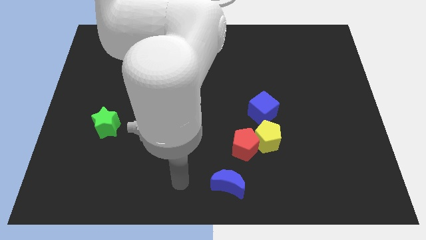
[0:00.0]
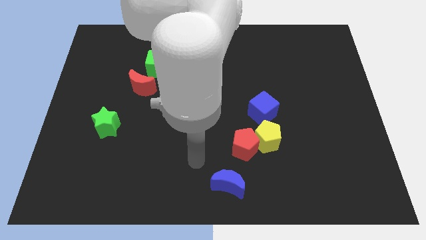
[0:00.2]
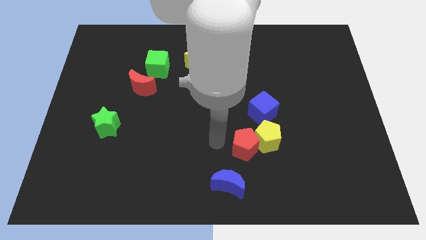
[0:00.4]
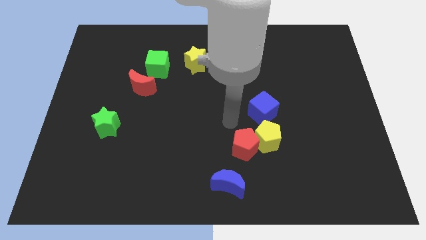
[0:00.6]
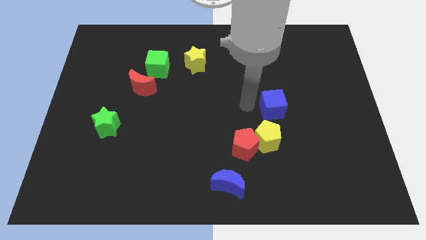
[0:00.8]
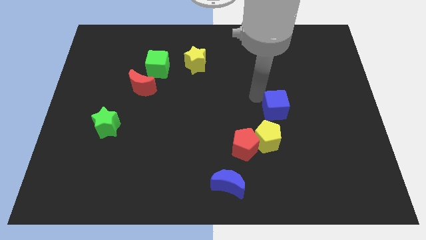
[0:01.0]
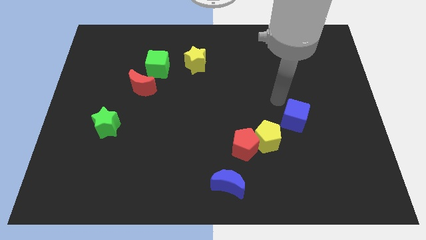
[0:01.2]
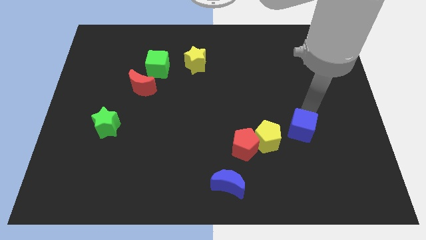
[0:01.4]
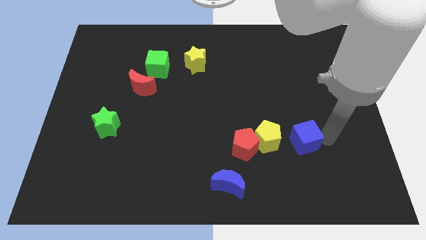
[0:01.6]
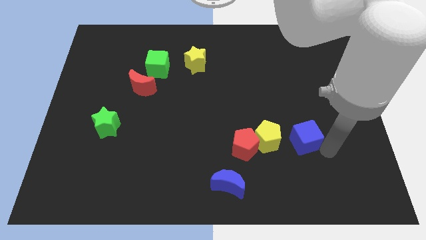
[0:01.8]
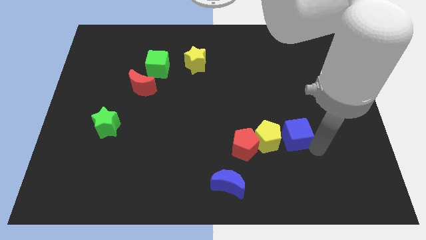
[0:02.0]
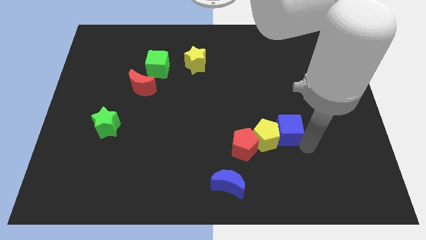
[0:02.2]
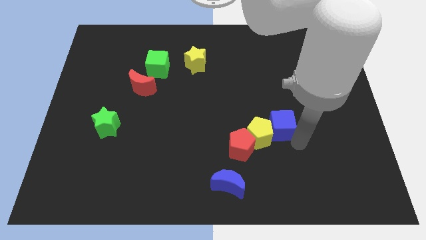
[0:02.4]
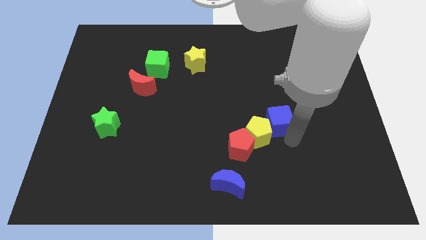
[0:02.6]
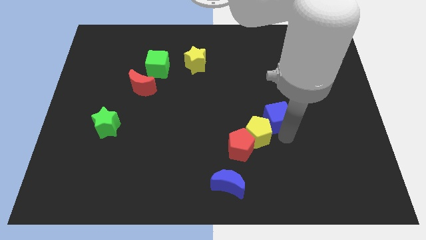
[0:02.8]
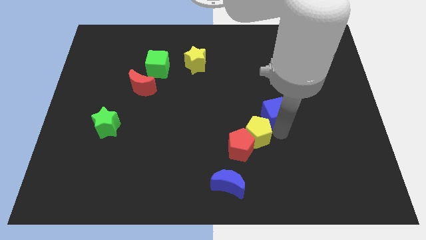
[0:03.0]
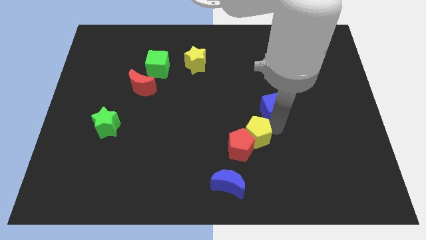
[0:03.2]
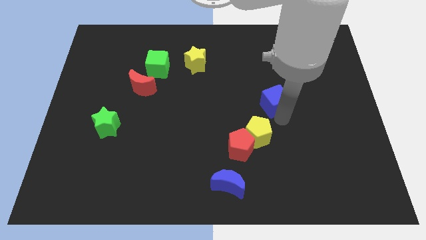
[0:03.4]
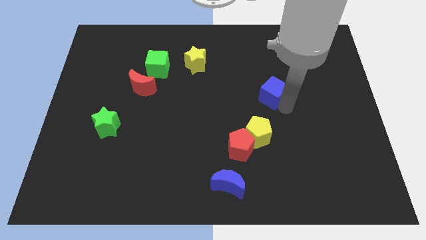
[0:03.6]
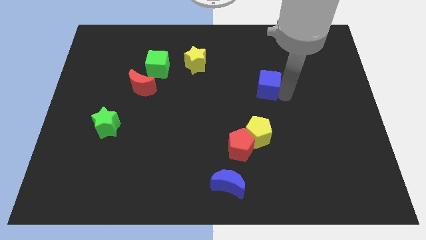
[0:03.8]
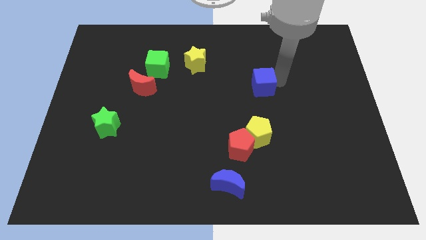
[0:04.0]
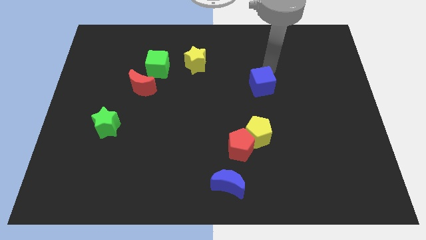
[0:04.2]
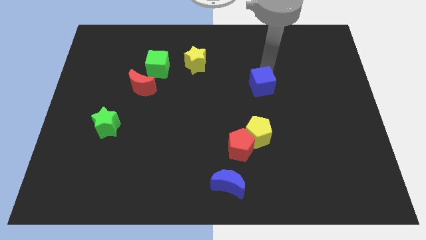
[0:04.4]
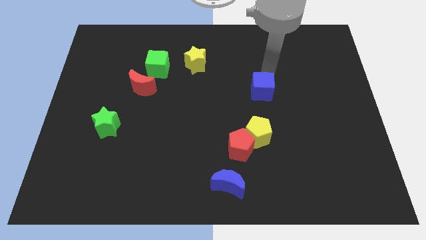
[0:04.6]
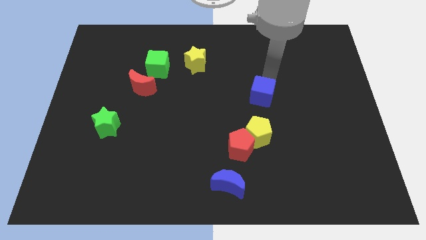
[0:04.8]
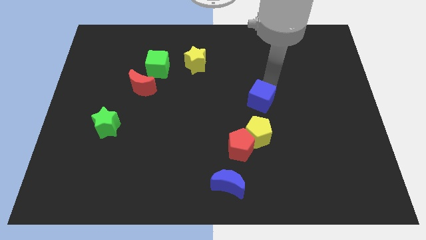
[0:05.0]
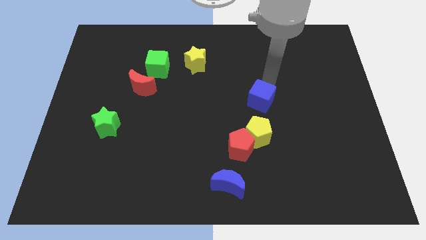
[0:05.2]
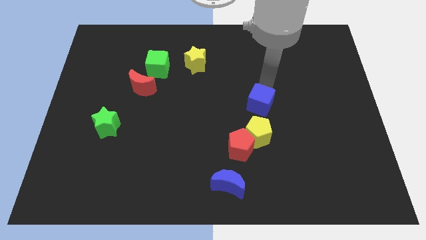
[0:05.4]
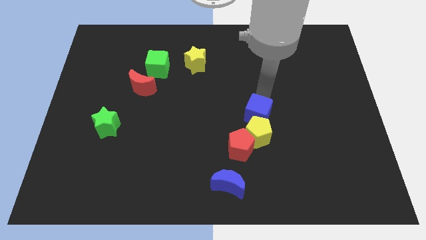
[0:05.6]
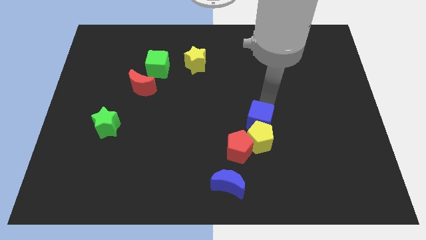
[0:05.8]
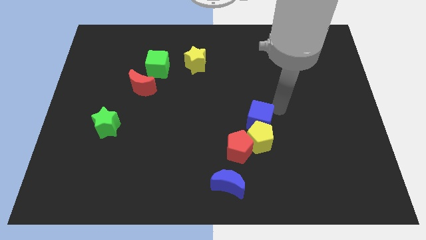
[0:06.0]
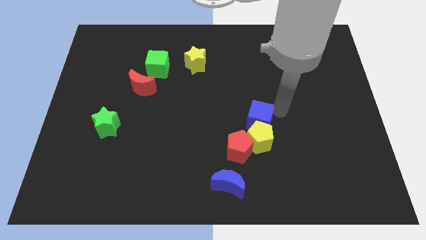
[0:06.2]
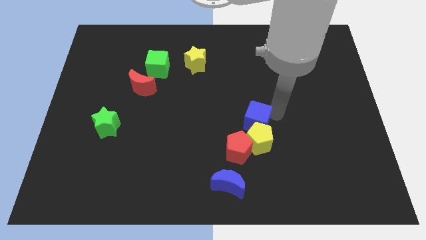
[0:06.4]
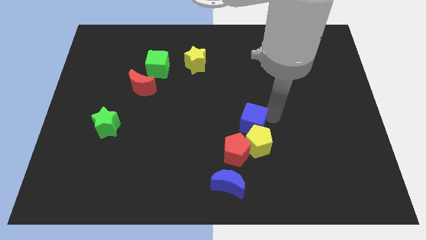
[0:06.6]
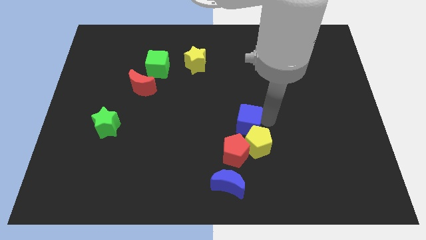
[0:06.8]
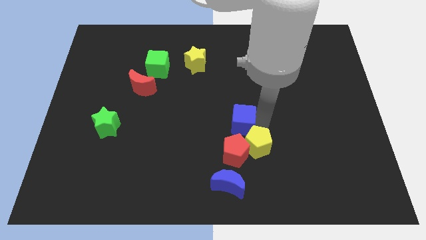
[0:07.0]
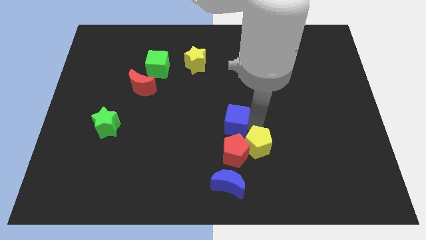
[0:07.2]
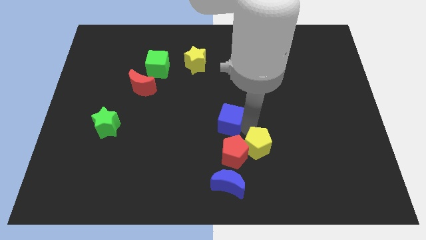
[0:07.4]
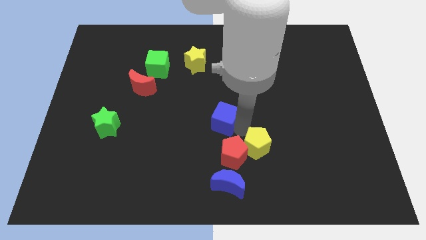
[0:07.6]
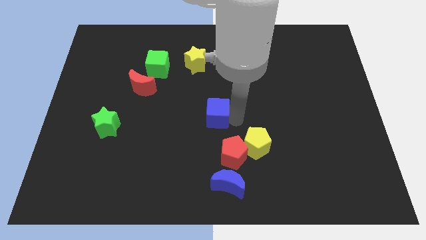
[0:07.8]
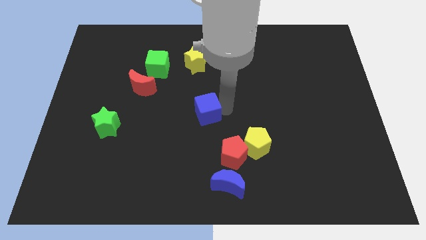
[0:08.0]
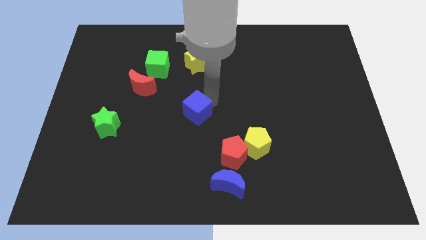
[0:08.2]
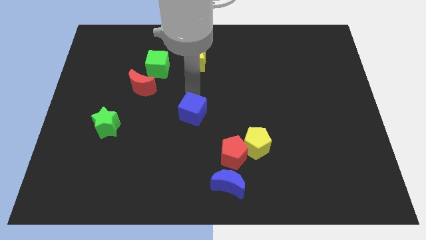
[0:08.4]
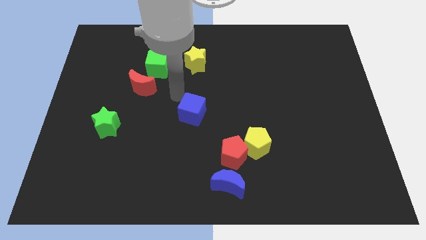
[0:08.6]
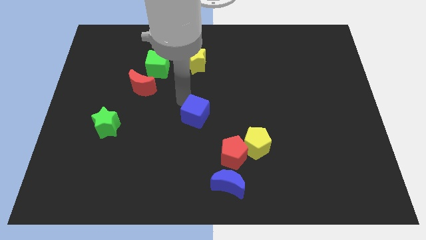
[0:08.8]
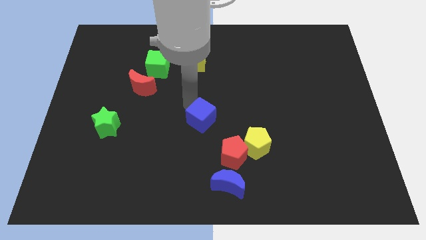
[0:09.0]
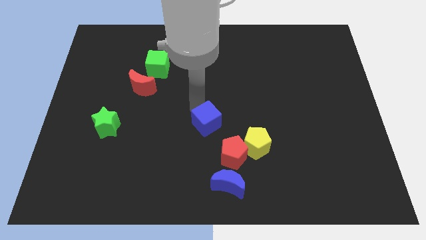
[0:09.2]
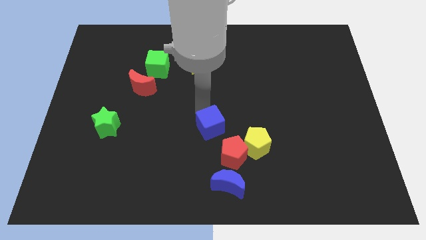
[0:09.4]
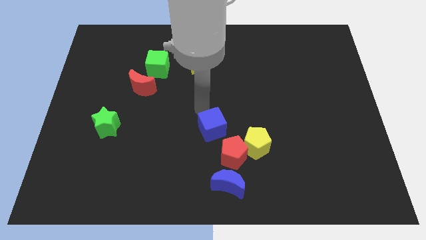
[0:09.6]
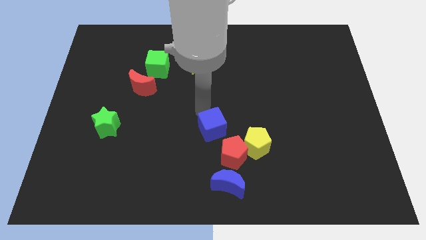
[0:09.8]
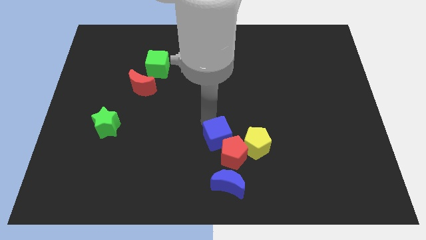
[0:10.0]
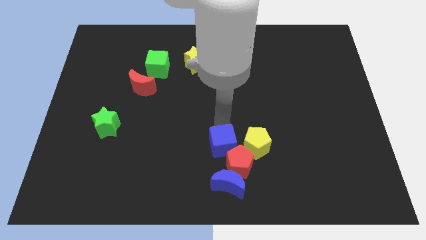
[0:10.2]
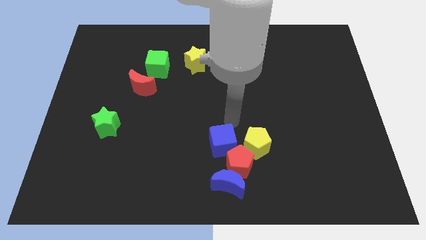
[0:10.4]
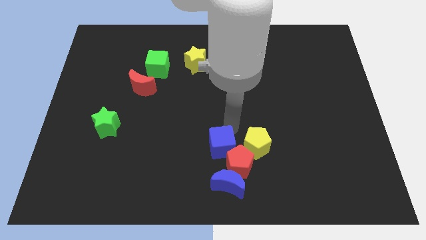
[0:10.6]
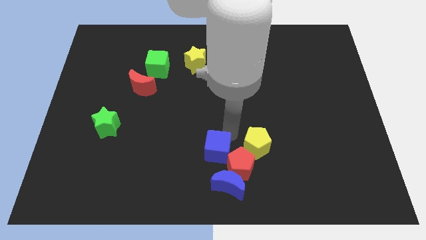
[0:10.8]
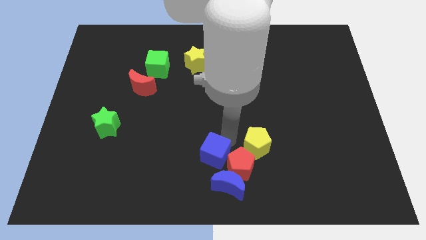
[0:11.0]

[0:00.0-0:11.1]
move the blue cube to the bottom

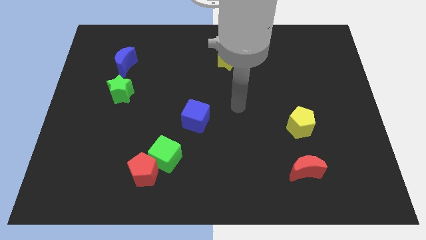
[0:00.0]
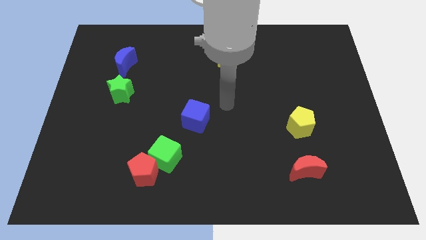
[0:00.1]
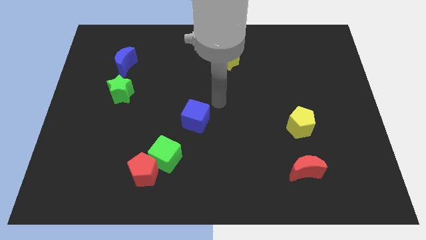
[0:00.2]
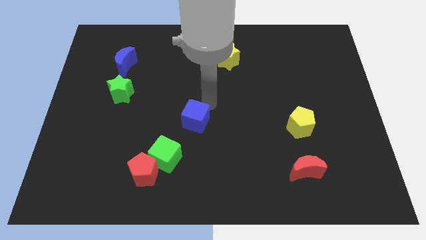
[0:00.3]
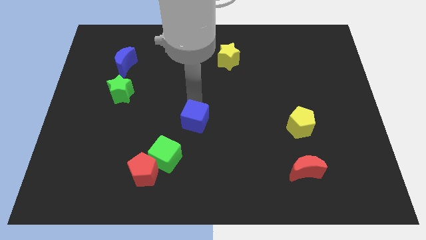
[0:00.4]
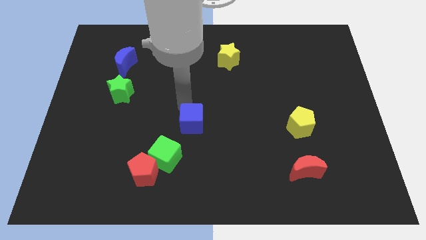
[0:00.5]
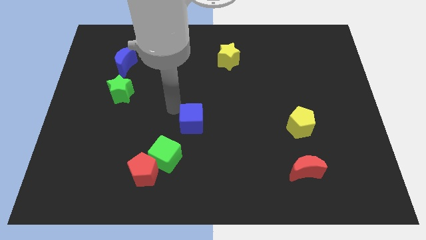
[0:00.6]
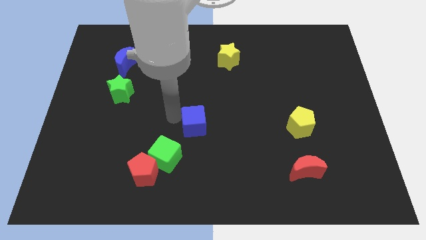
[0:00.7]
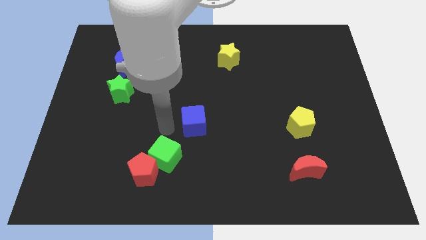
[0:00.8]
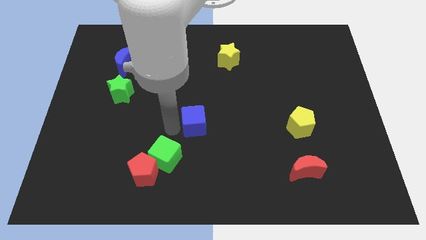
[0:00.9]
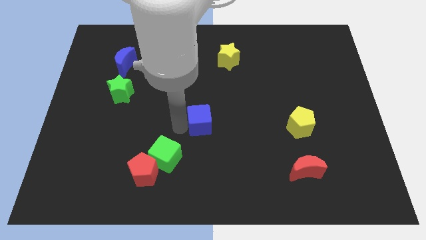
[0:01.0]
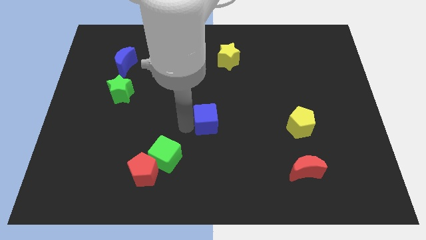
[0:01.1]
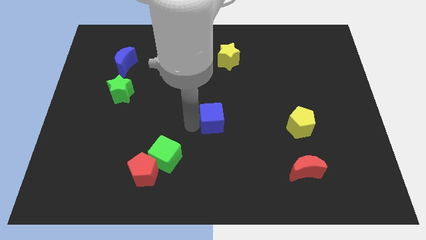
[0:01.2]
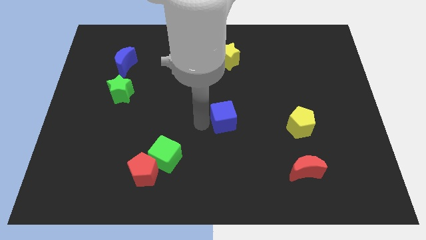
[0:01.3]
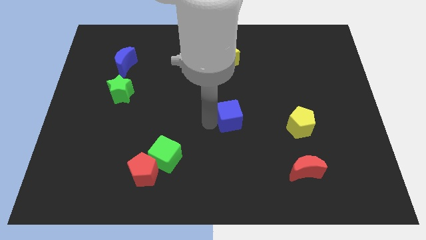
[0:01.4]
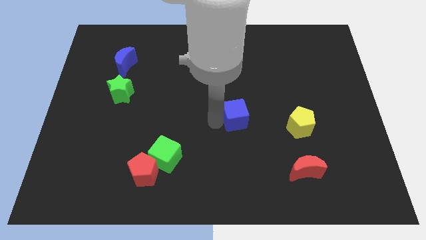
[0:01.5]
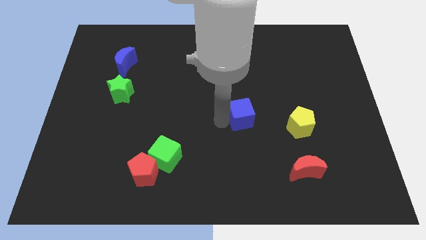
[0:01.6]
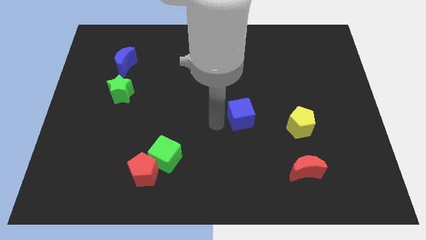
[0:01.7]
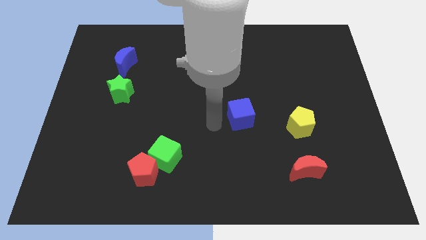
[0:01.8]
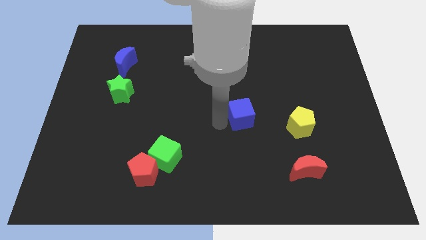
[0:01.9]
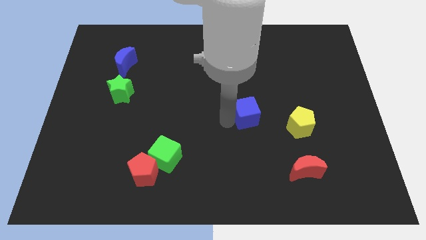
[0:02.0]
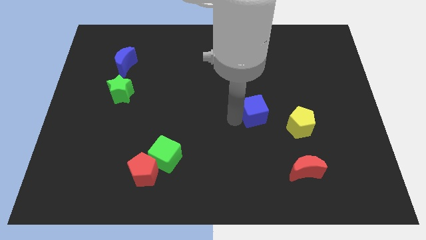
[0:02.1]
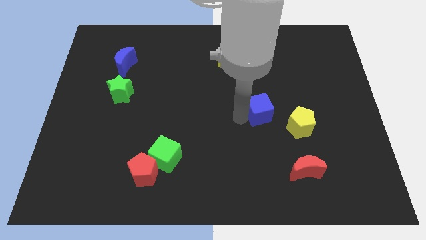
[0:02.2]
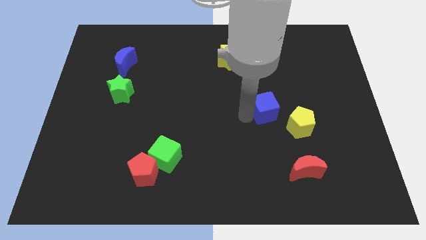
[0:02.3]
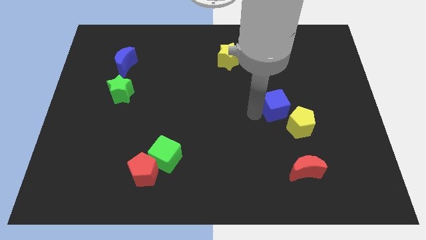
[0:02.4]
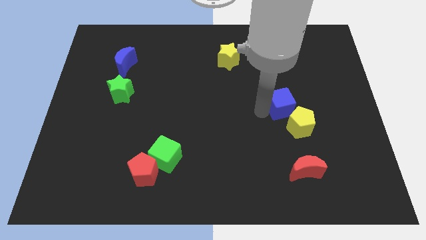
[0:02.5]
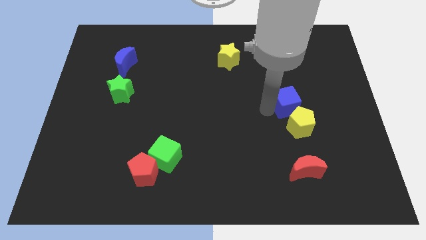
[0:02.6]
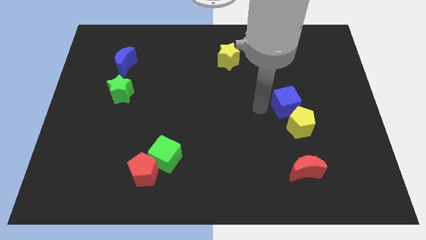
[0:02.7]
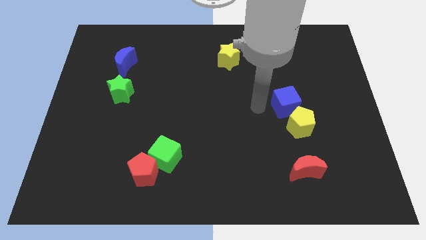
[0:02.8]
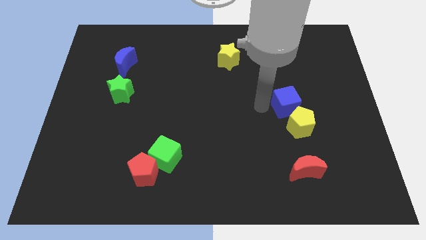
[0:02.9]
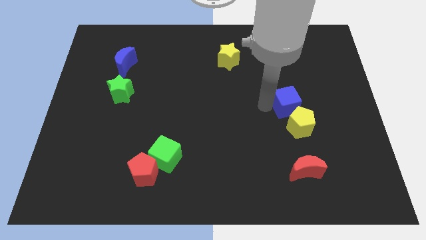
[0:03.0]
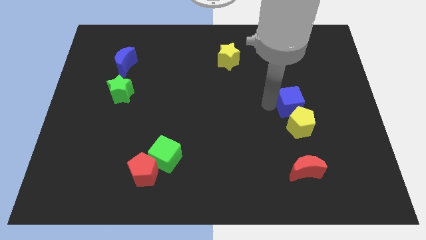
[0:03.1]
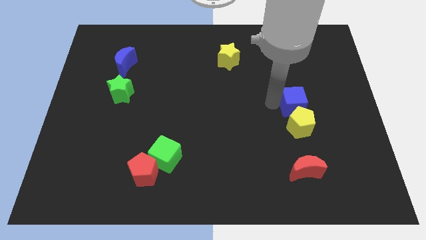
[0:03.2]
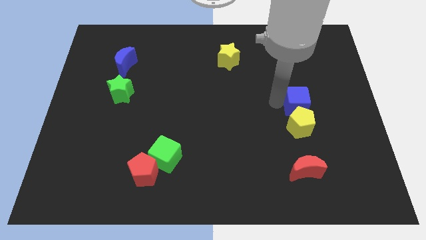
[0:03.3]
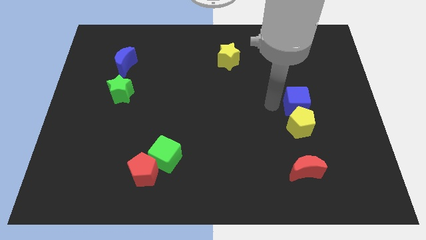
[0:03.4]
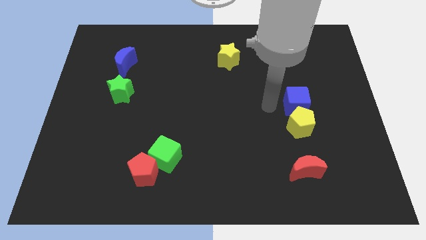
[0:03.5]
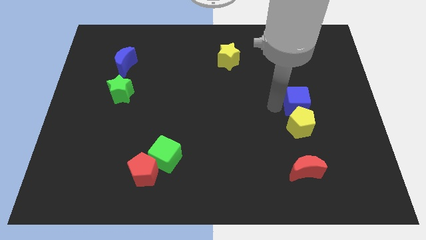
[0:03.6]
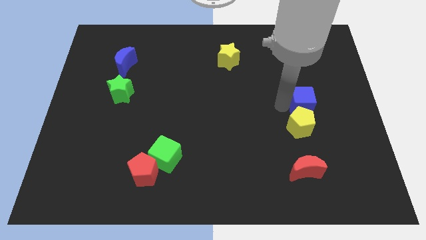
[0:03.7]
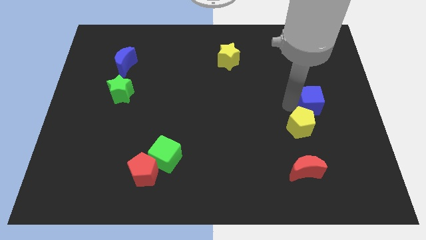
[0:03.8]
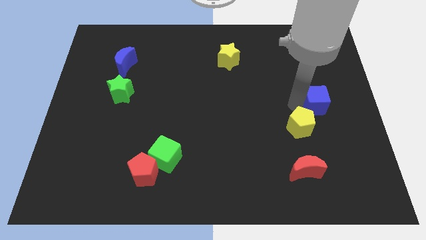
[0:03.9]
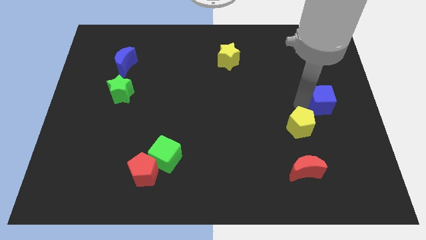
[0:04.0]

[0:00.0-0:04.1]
move the blue cube to the right side
